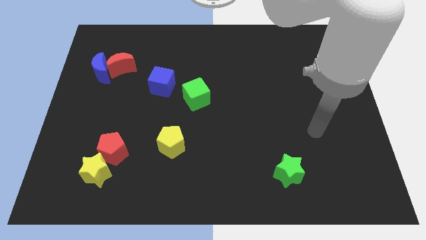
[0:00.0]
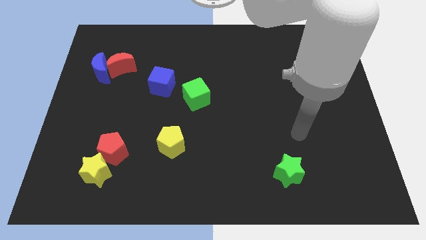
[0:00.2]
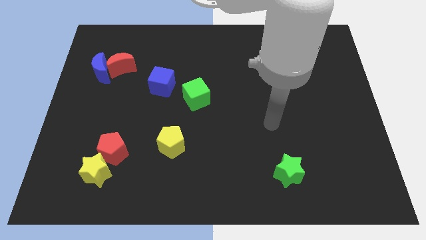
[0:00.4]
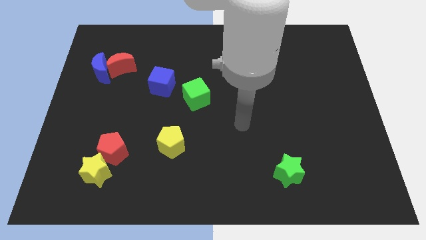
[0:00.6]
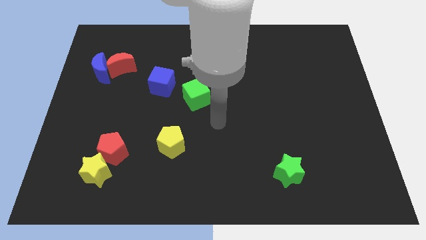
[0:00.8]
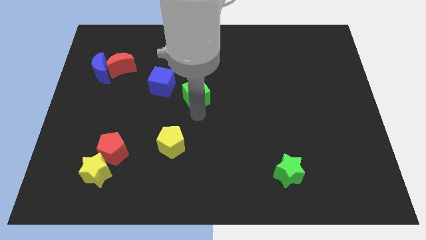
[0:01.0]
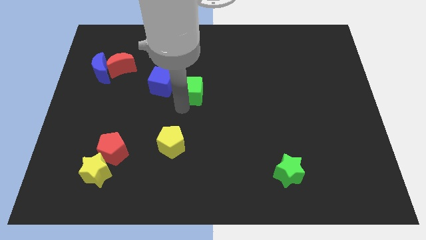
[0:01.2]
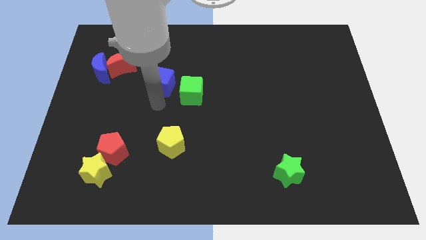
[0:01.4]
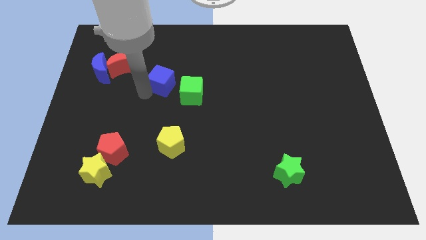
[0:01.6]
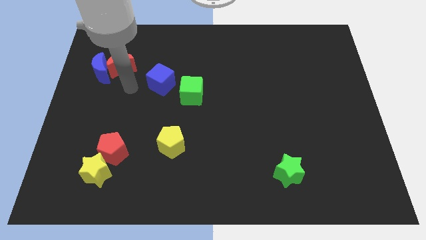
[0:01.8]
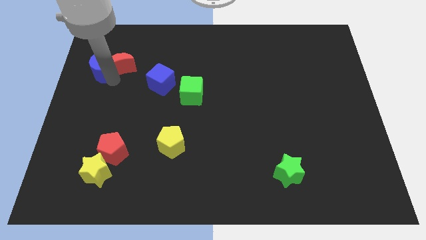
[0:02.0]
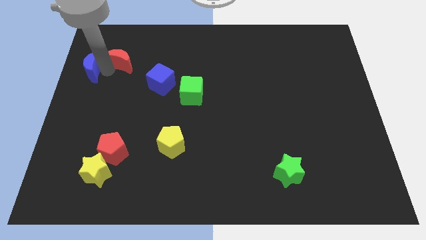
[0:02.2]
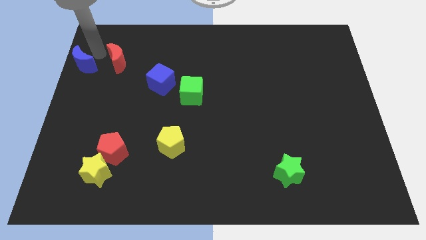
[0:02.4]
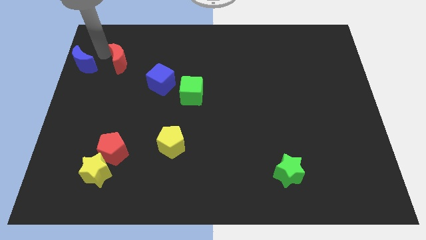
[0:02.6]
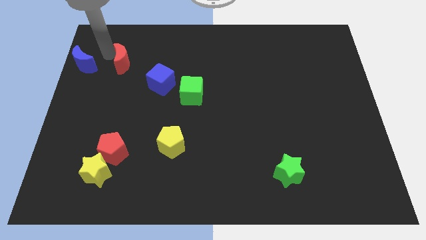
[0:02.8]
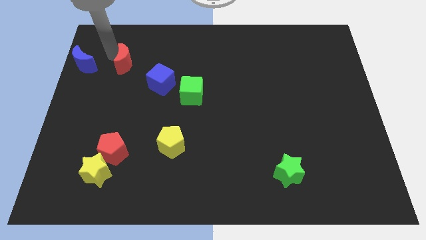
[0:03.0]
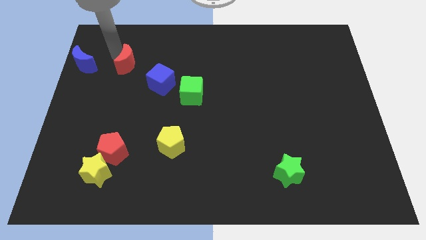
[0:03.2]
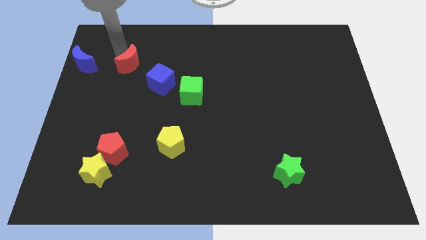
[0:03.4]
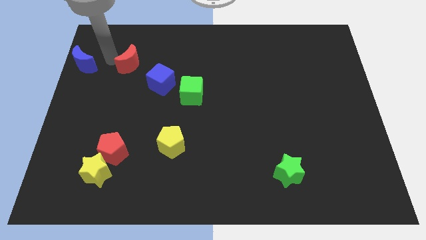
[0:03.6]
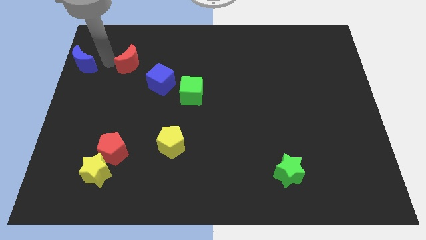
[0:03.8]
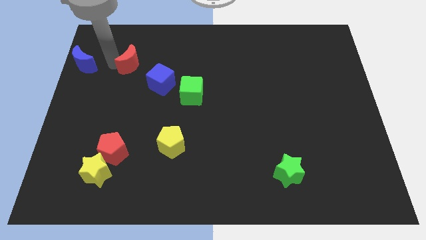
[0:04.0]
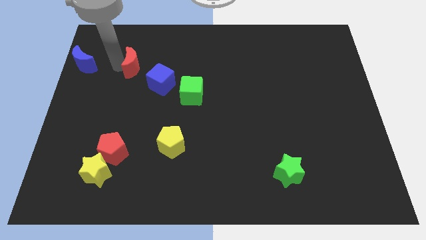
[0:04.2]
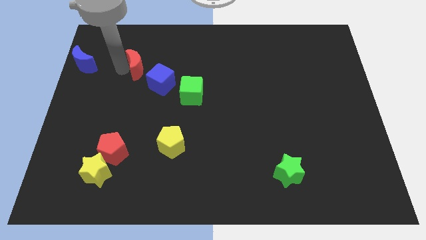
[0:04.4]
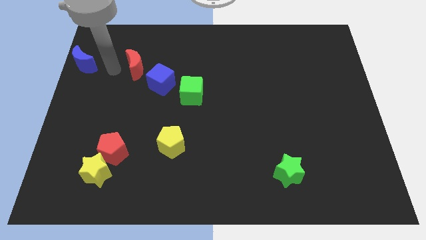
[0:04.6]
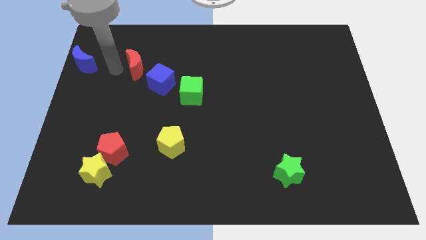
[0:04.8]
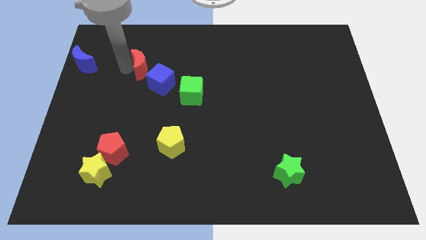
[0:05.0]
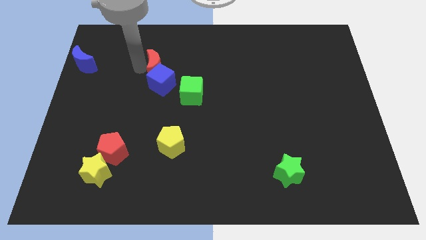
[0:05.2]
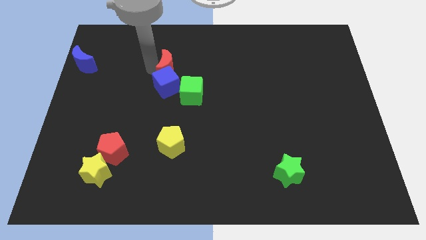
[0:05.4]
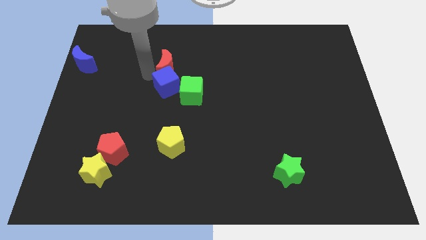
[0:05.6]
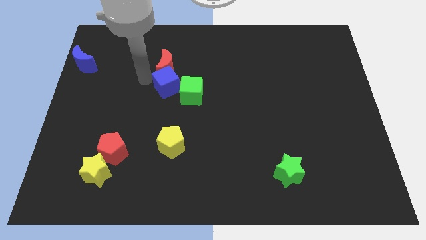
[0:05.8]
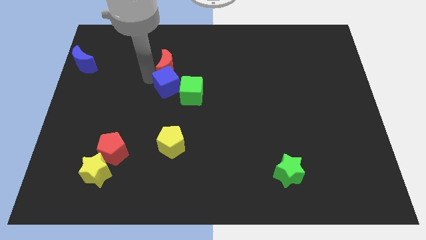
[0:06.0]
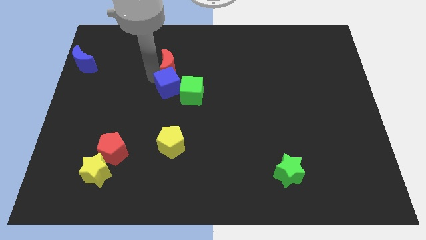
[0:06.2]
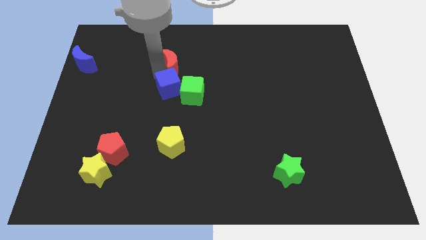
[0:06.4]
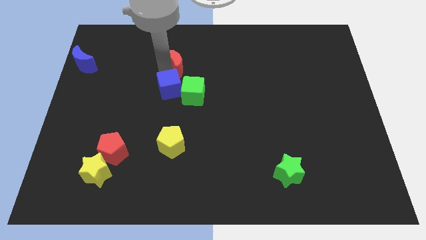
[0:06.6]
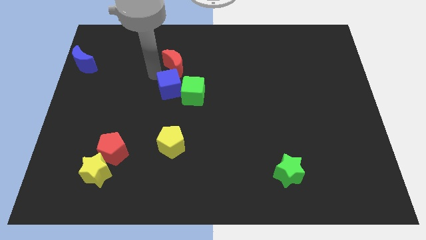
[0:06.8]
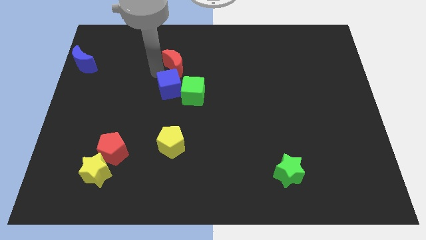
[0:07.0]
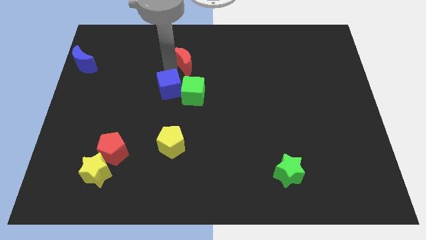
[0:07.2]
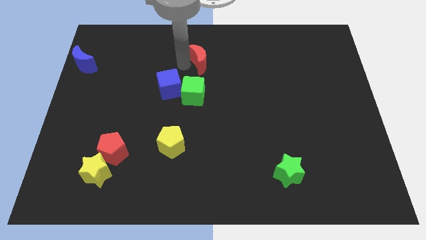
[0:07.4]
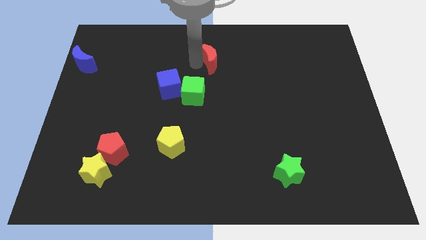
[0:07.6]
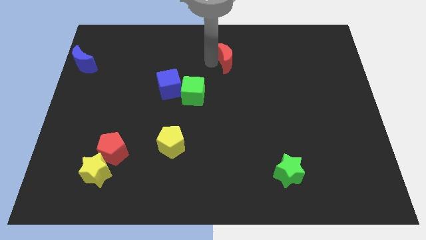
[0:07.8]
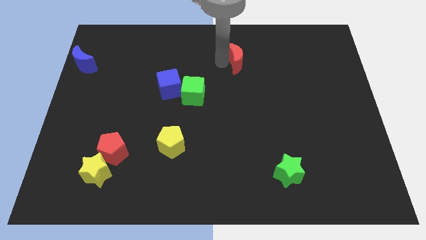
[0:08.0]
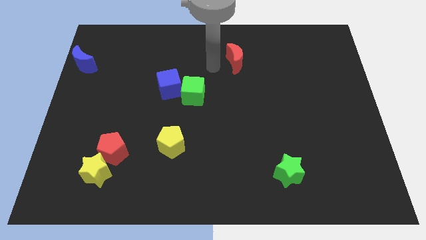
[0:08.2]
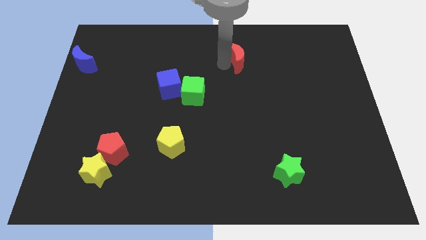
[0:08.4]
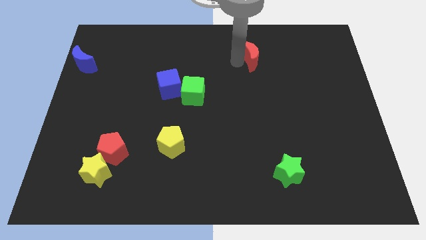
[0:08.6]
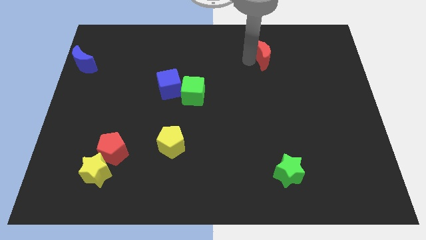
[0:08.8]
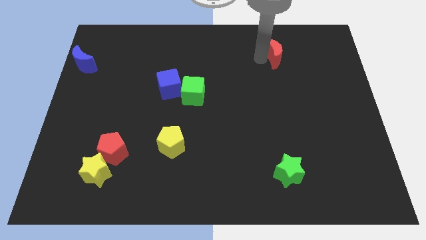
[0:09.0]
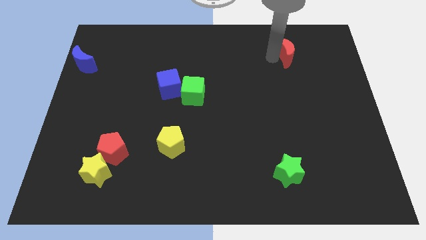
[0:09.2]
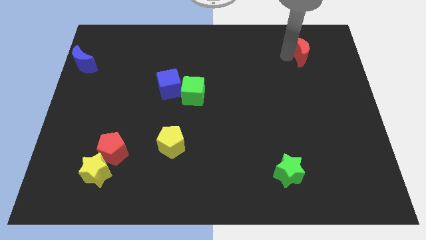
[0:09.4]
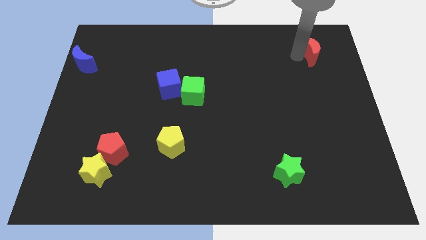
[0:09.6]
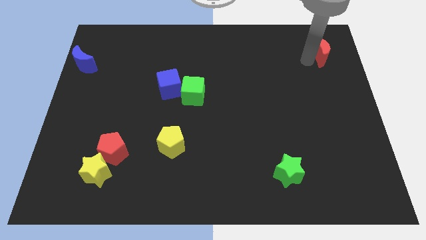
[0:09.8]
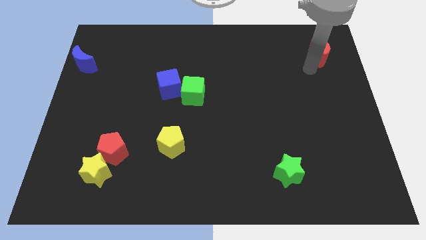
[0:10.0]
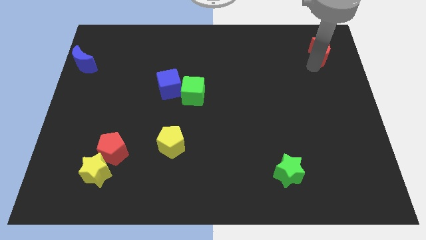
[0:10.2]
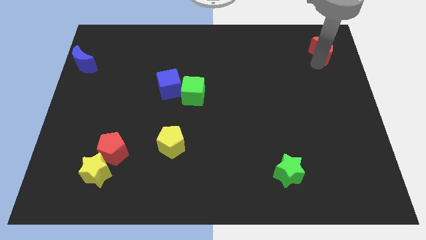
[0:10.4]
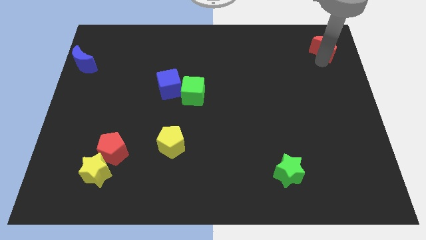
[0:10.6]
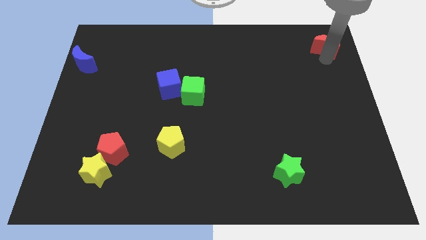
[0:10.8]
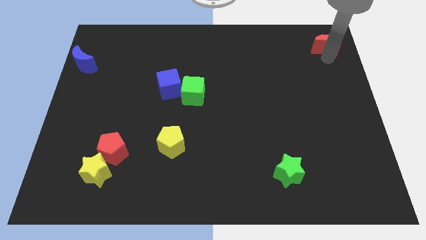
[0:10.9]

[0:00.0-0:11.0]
move the red moon to the upper right corner
